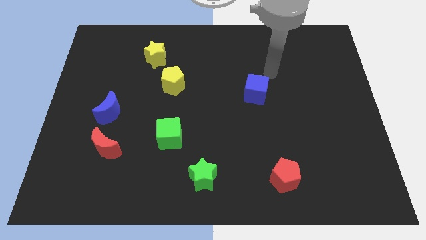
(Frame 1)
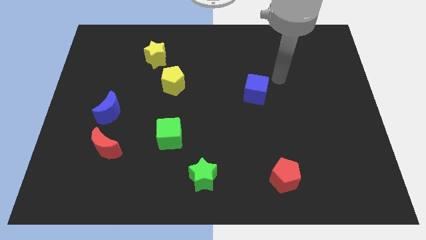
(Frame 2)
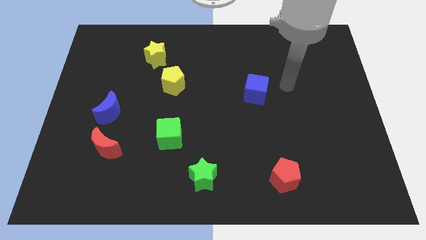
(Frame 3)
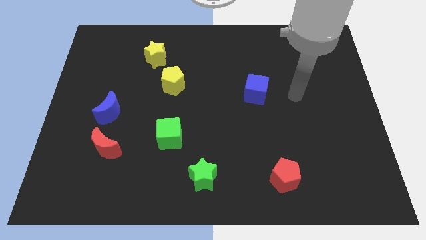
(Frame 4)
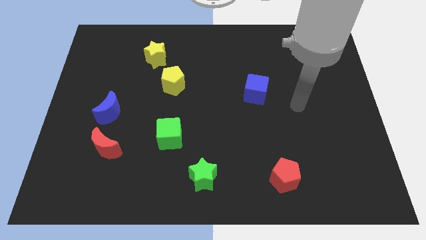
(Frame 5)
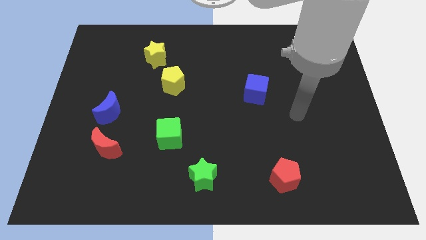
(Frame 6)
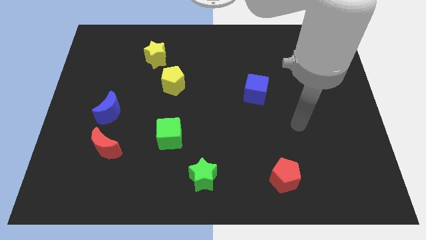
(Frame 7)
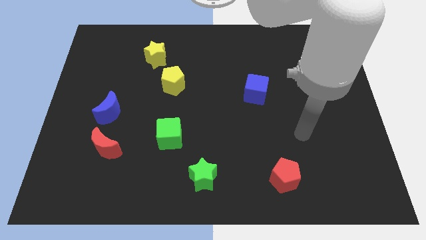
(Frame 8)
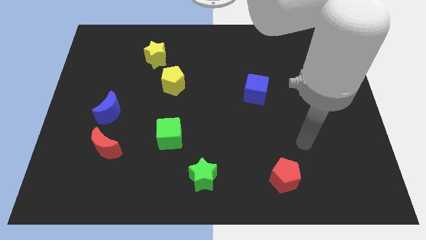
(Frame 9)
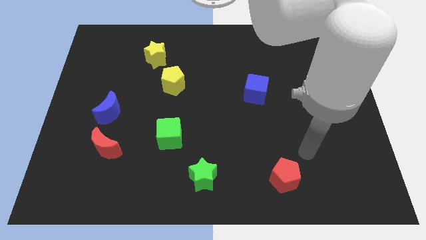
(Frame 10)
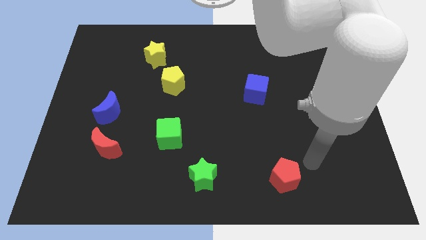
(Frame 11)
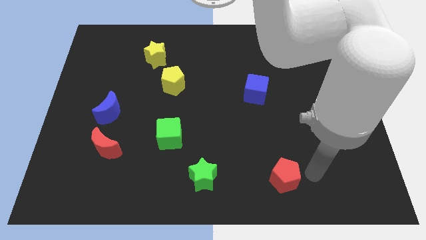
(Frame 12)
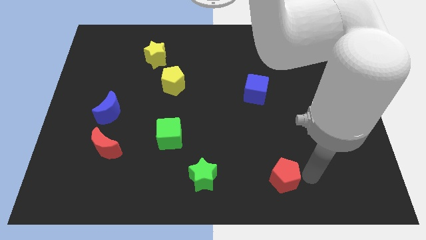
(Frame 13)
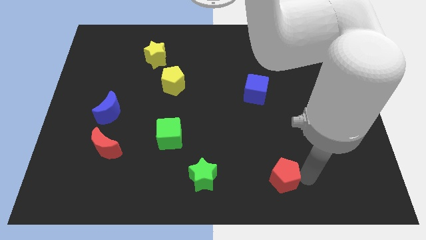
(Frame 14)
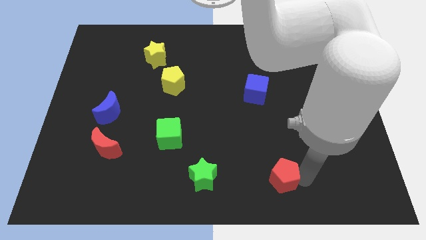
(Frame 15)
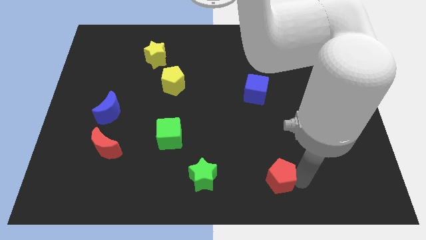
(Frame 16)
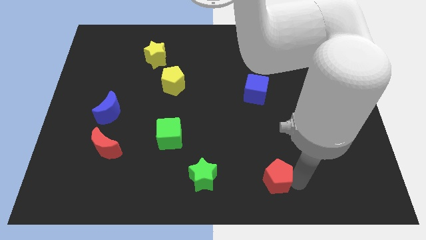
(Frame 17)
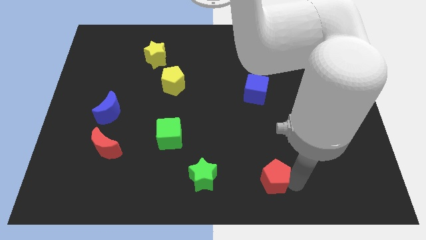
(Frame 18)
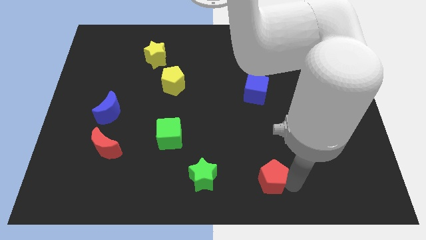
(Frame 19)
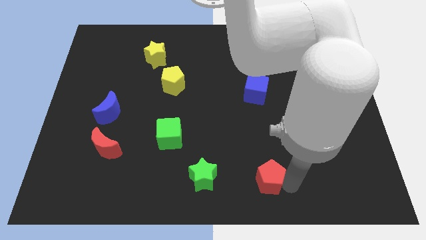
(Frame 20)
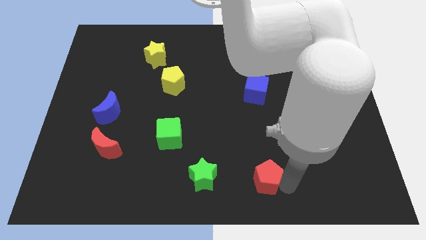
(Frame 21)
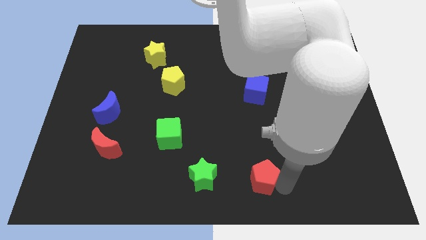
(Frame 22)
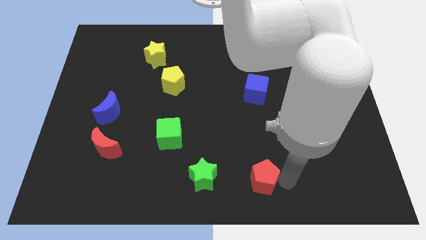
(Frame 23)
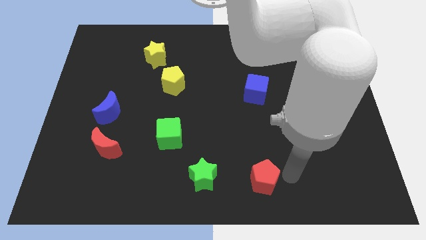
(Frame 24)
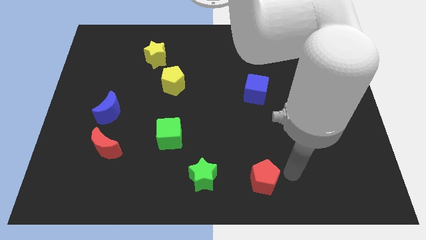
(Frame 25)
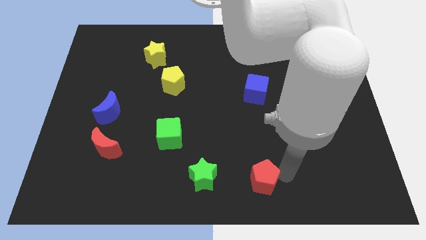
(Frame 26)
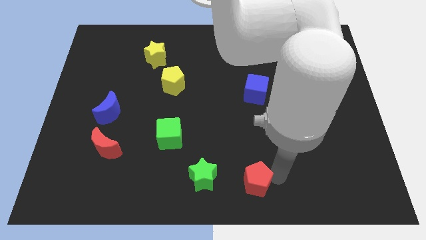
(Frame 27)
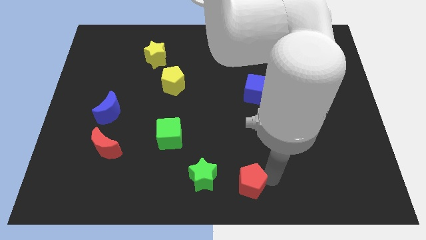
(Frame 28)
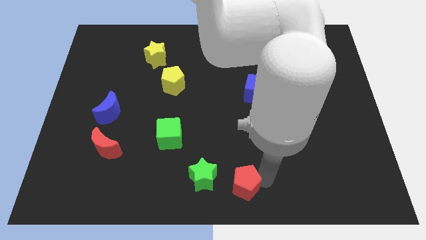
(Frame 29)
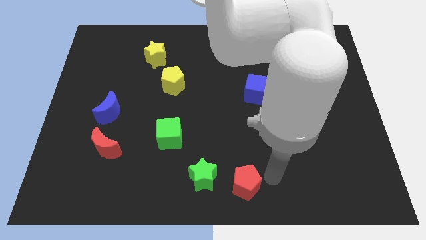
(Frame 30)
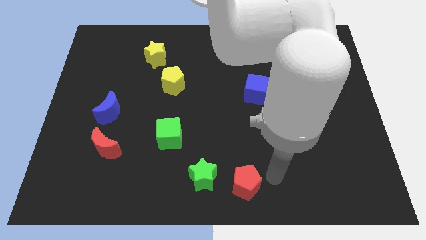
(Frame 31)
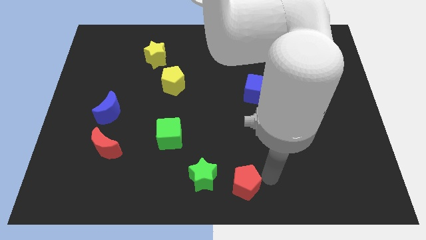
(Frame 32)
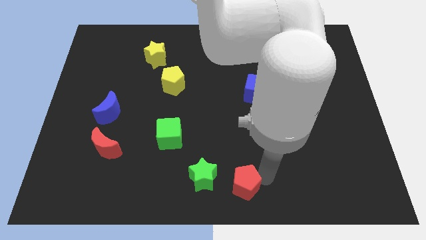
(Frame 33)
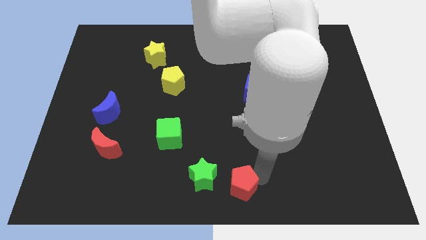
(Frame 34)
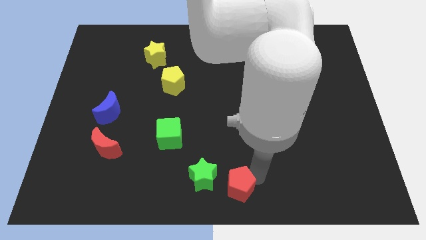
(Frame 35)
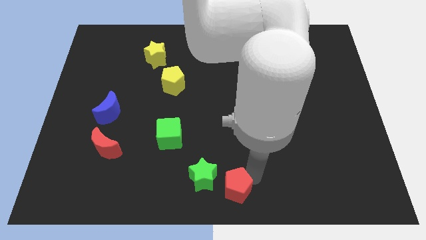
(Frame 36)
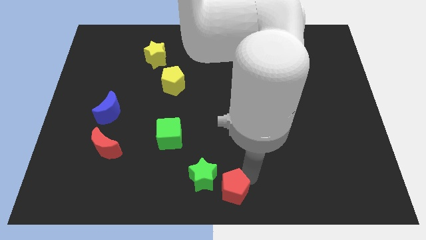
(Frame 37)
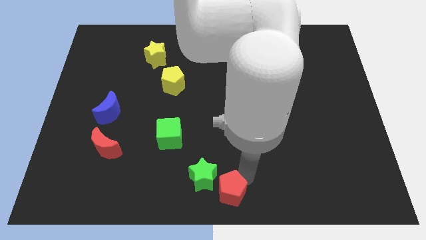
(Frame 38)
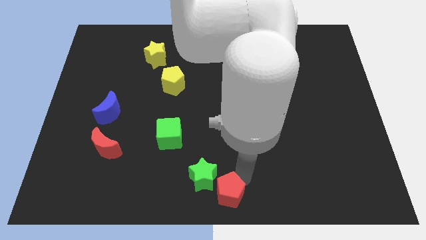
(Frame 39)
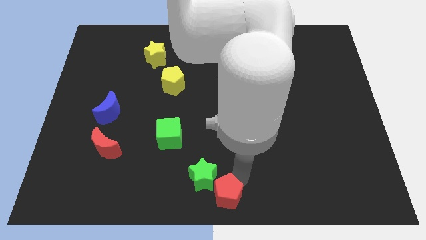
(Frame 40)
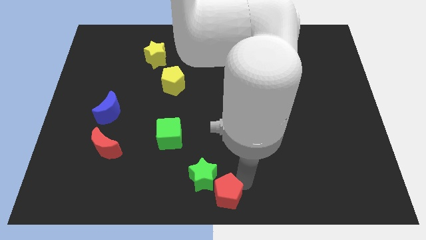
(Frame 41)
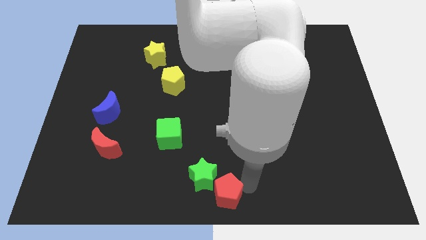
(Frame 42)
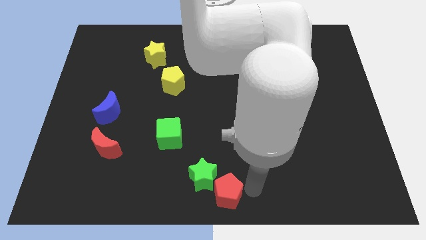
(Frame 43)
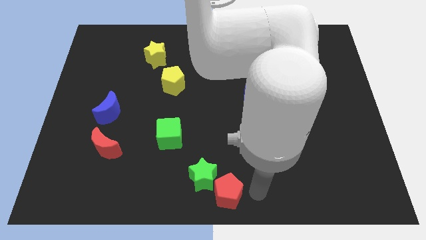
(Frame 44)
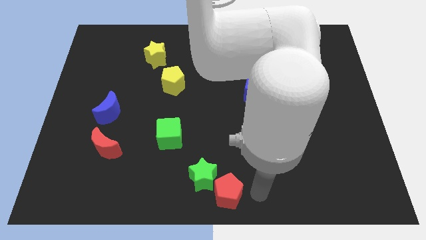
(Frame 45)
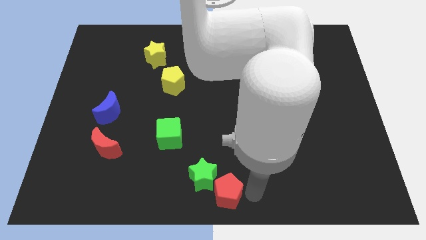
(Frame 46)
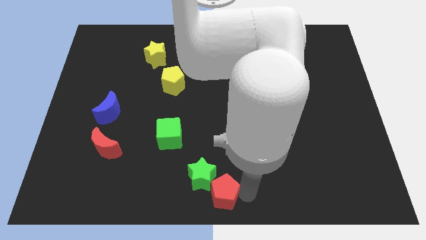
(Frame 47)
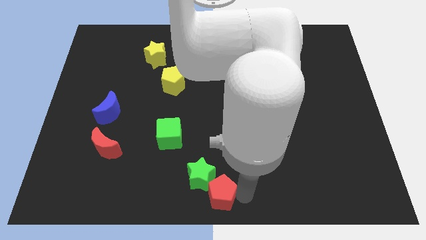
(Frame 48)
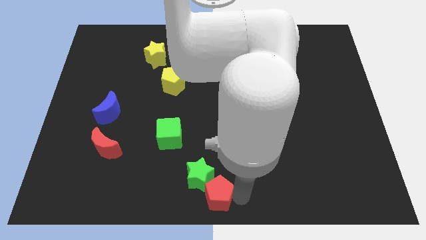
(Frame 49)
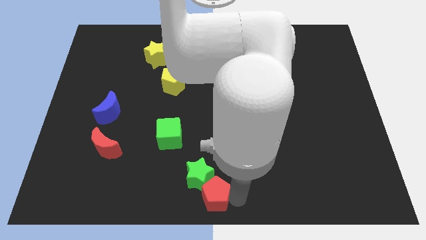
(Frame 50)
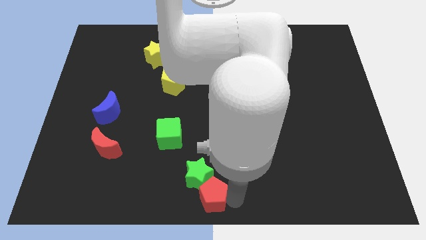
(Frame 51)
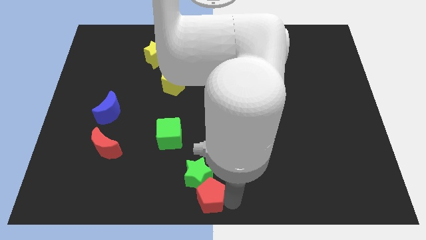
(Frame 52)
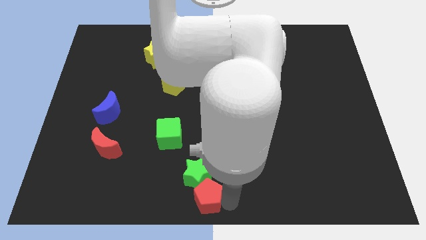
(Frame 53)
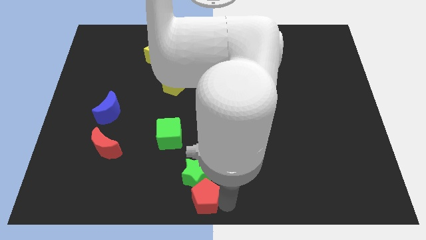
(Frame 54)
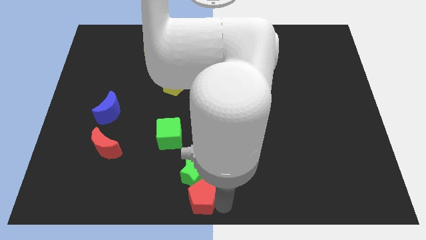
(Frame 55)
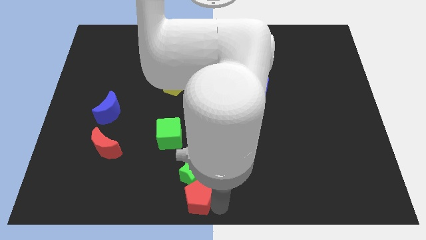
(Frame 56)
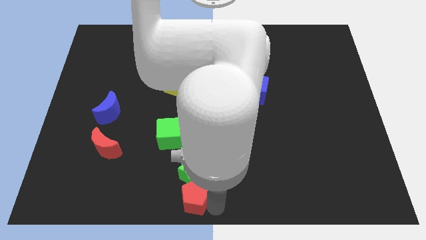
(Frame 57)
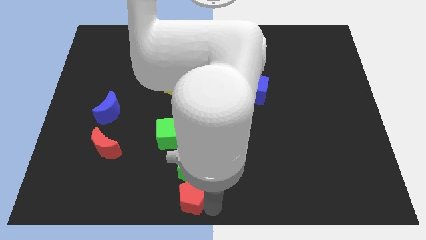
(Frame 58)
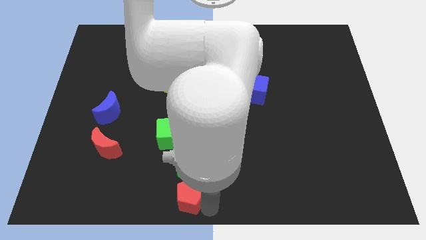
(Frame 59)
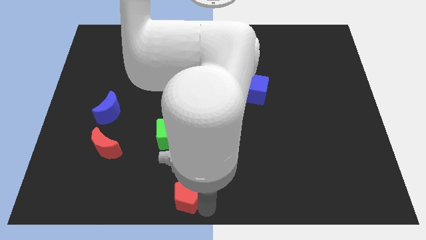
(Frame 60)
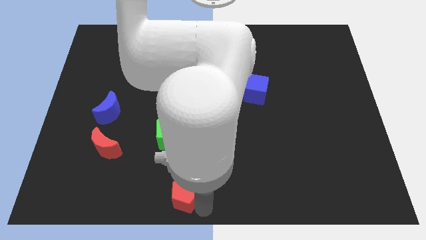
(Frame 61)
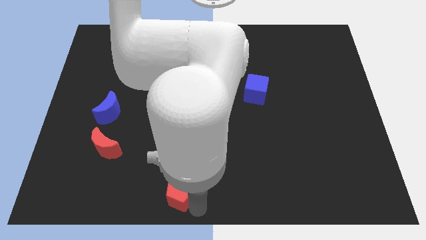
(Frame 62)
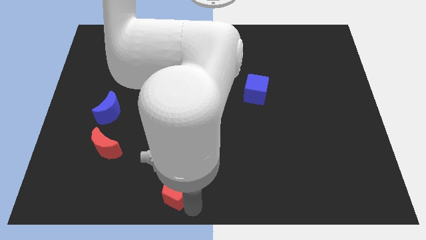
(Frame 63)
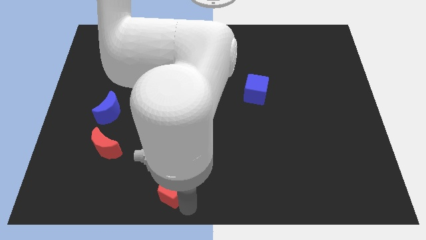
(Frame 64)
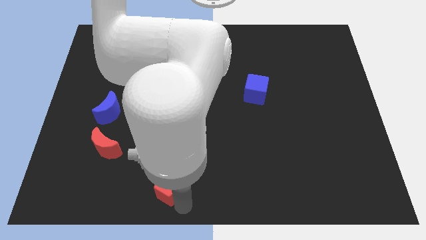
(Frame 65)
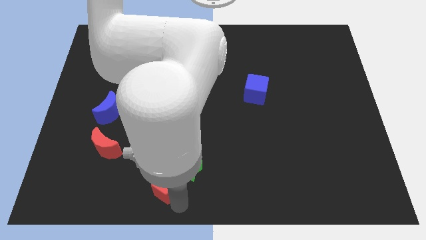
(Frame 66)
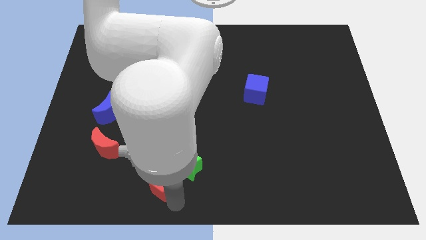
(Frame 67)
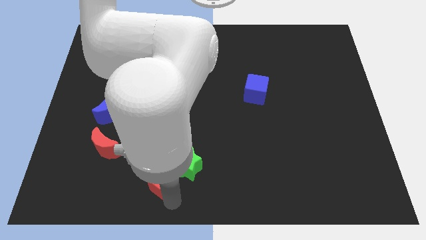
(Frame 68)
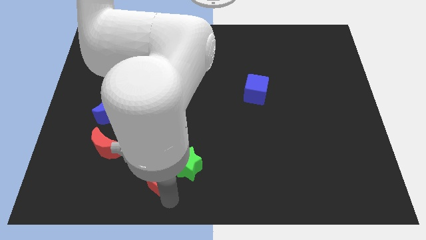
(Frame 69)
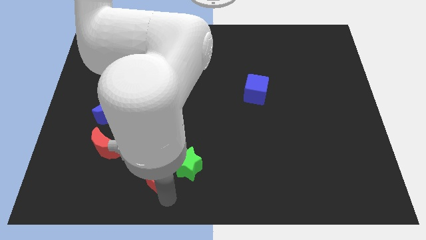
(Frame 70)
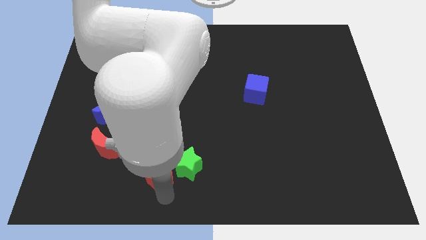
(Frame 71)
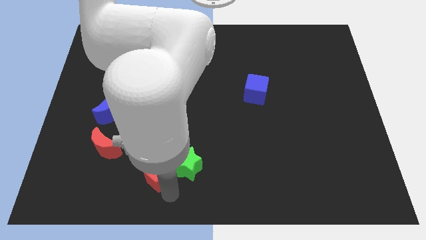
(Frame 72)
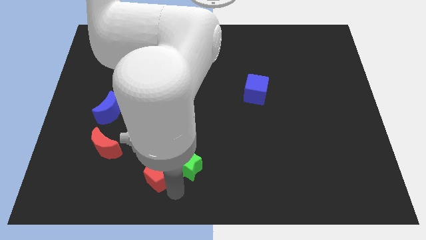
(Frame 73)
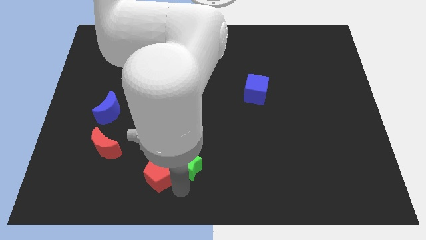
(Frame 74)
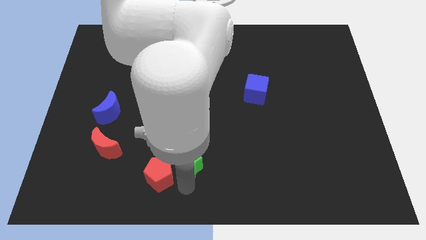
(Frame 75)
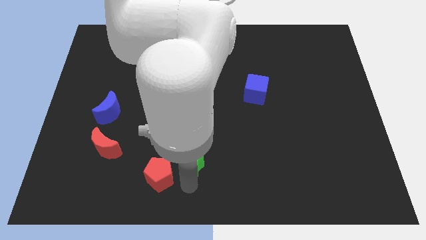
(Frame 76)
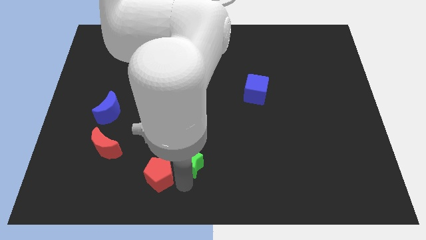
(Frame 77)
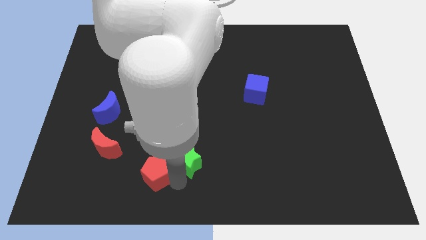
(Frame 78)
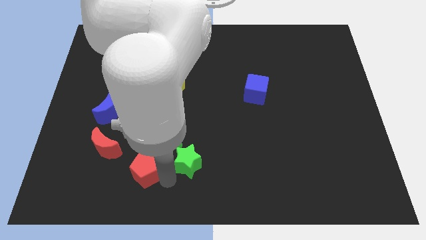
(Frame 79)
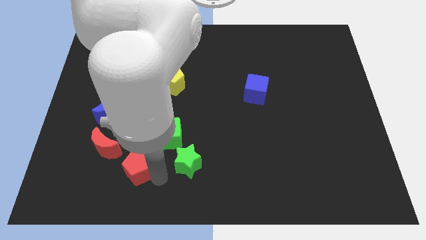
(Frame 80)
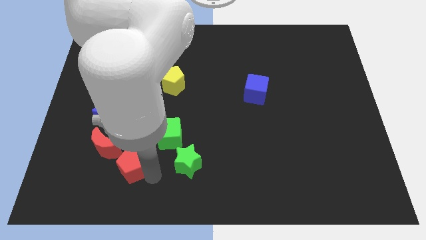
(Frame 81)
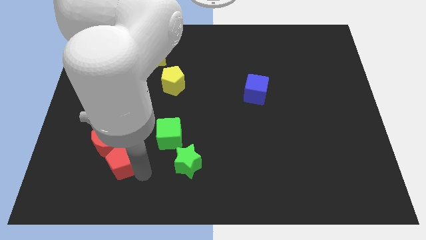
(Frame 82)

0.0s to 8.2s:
put the red pentagon next to the red moon
